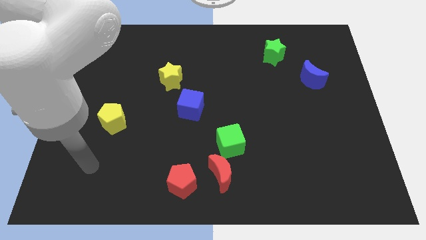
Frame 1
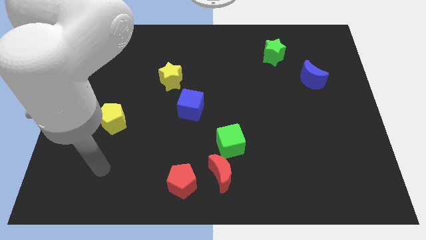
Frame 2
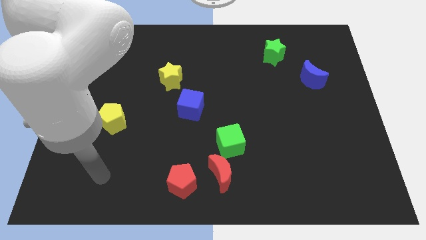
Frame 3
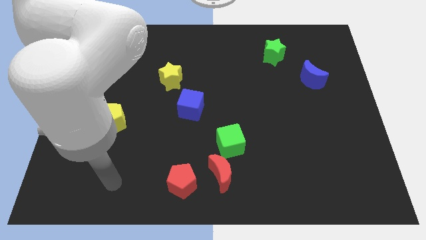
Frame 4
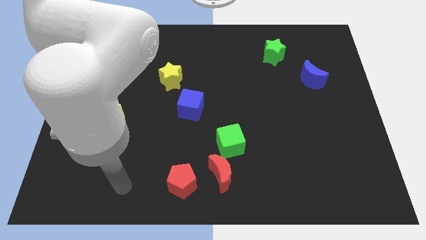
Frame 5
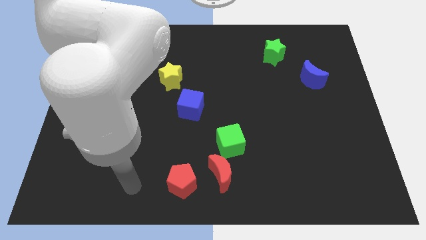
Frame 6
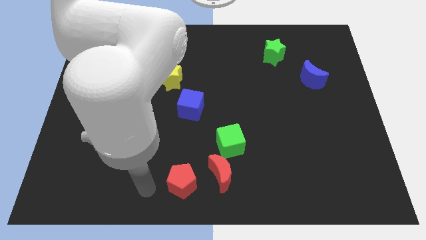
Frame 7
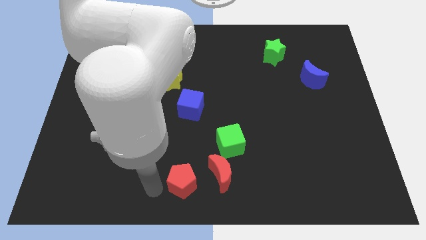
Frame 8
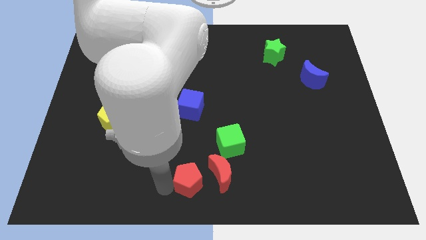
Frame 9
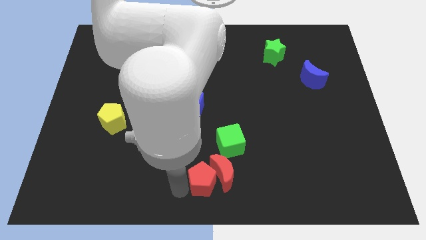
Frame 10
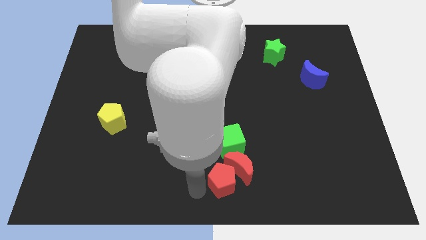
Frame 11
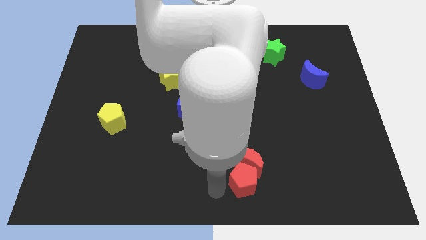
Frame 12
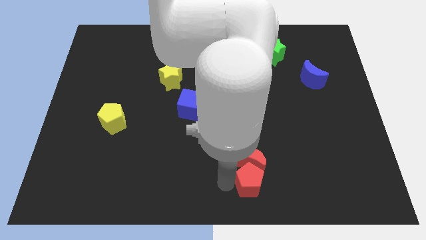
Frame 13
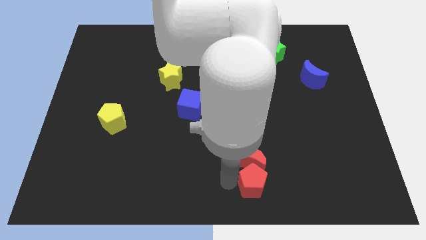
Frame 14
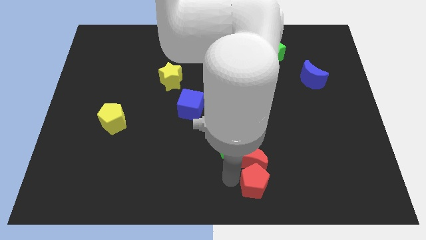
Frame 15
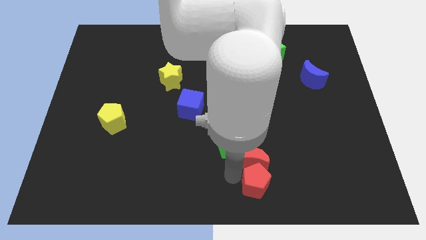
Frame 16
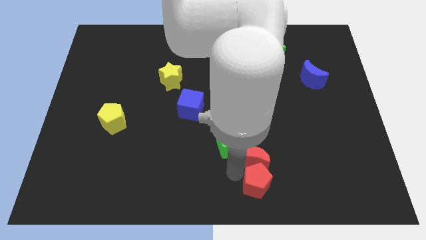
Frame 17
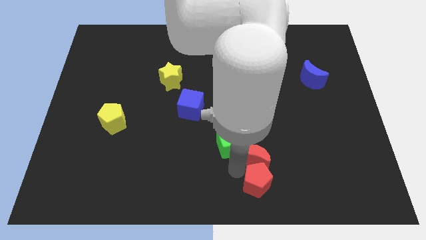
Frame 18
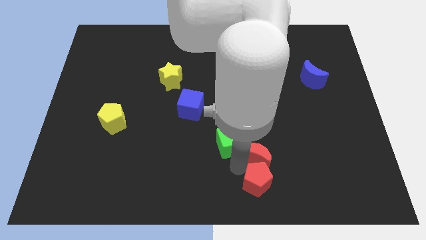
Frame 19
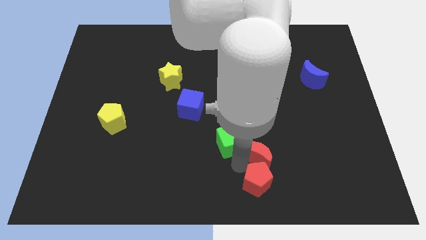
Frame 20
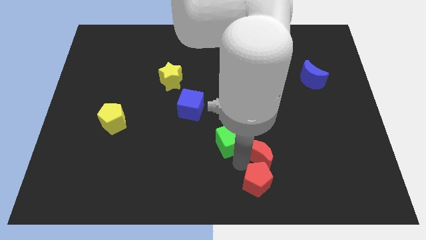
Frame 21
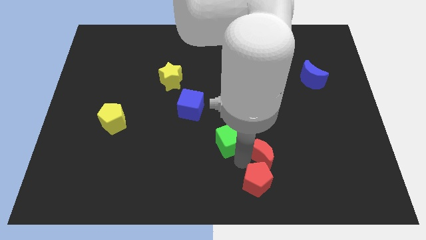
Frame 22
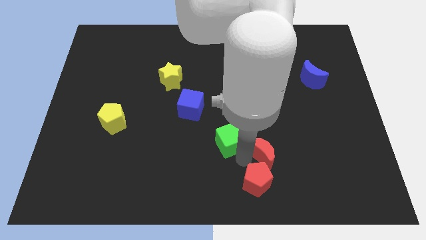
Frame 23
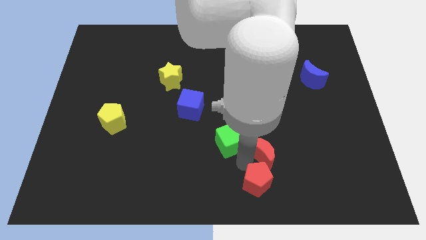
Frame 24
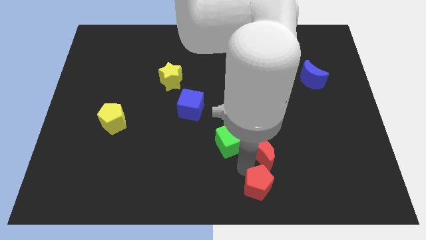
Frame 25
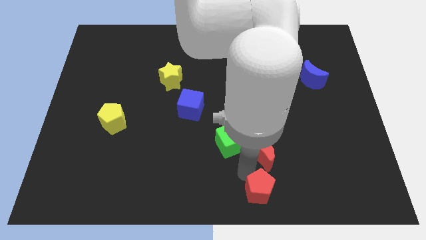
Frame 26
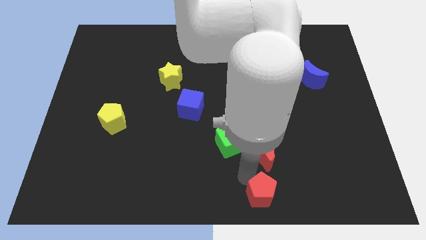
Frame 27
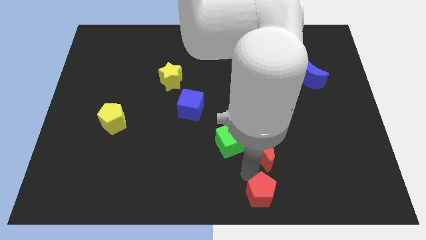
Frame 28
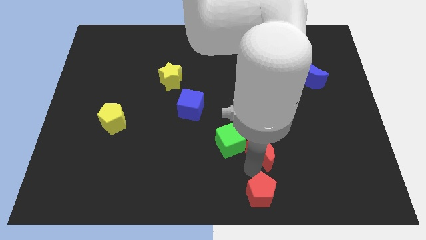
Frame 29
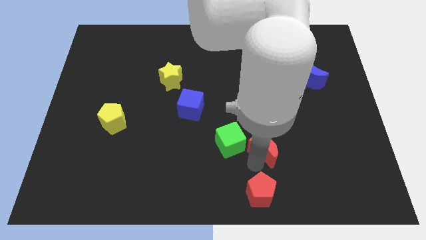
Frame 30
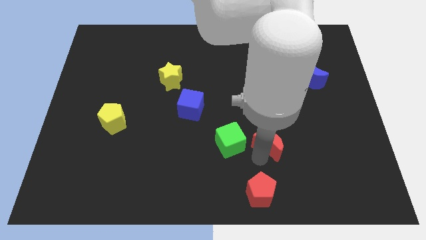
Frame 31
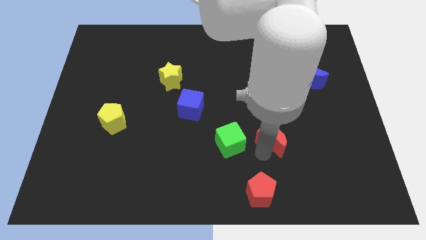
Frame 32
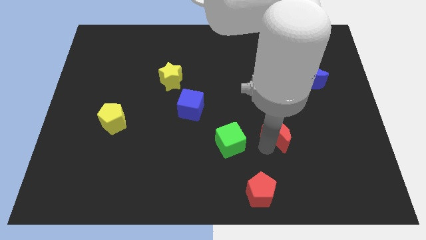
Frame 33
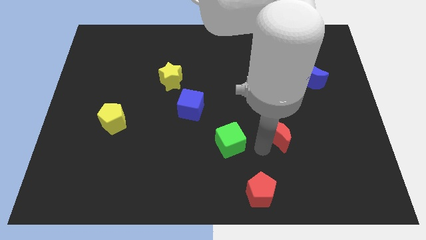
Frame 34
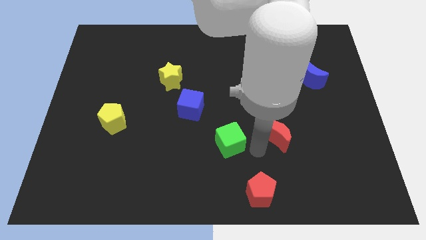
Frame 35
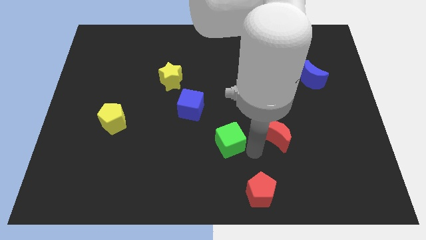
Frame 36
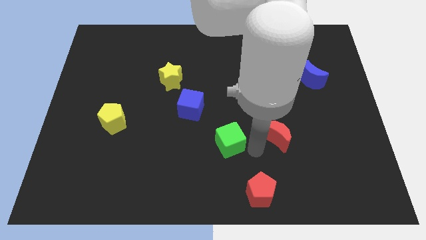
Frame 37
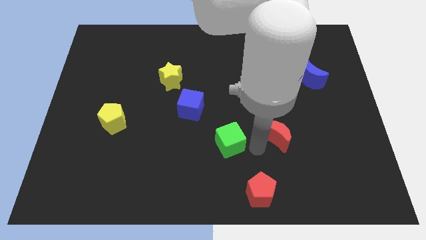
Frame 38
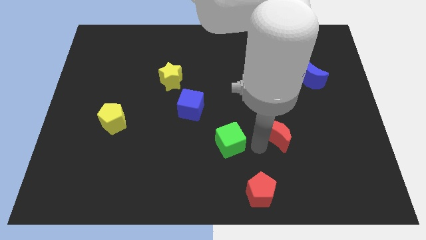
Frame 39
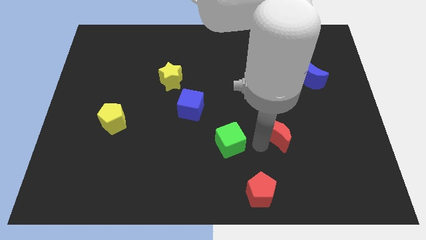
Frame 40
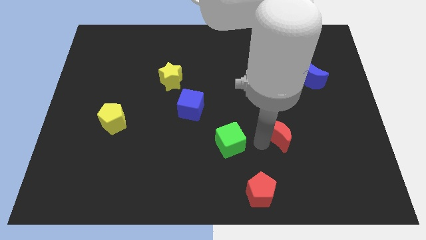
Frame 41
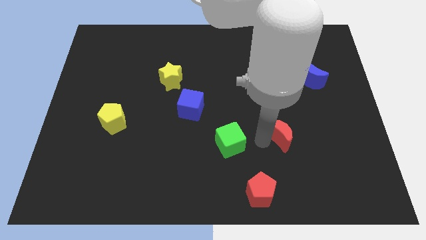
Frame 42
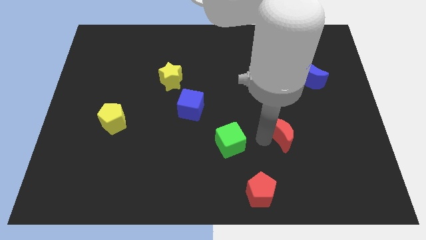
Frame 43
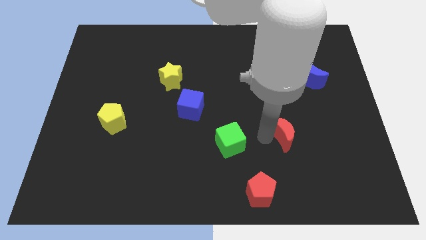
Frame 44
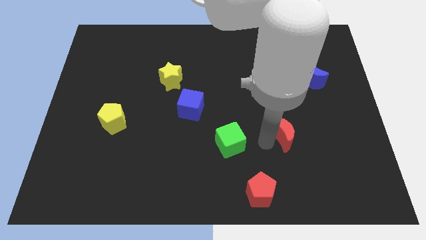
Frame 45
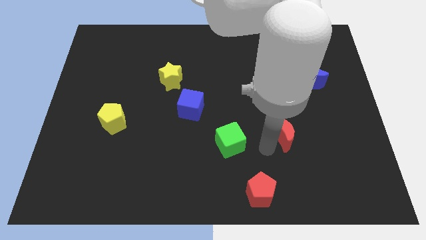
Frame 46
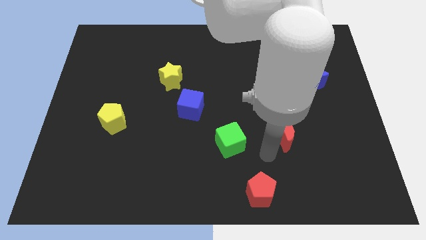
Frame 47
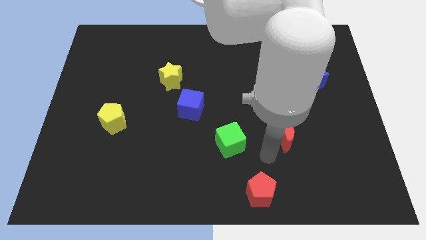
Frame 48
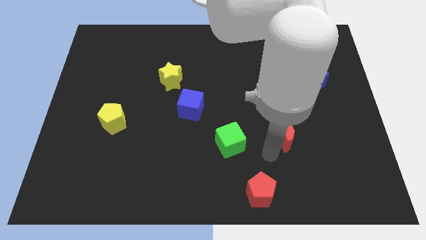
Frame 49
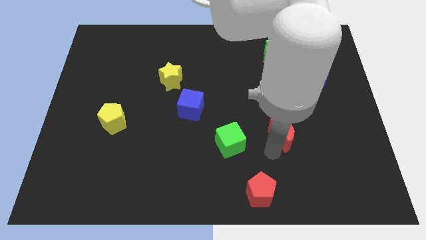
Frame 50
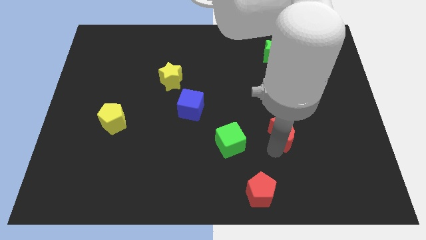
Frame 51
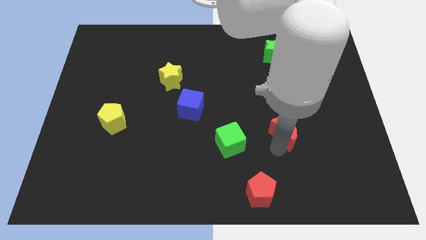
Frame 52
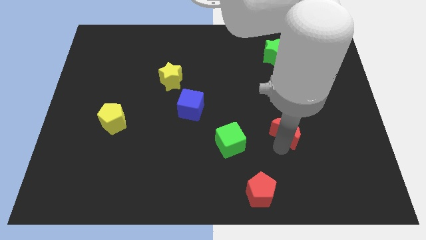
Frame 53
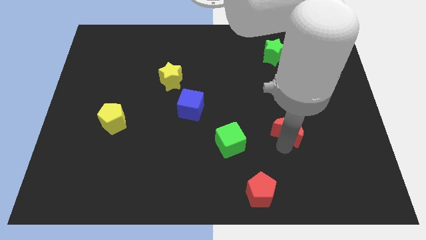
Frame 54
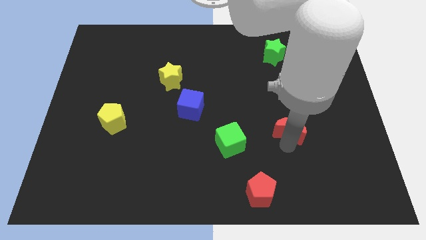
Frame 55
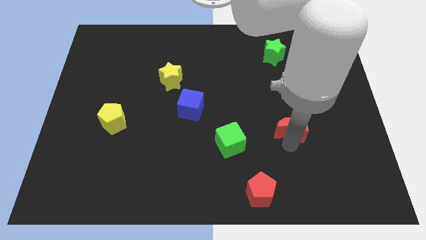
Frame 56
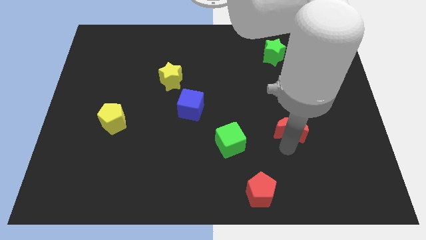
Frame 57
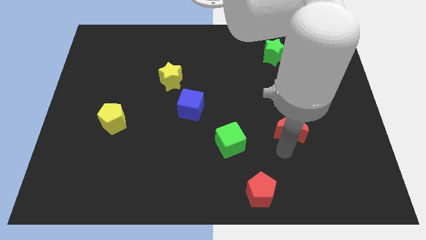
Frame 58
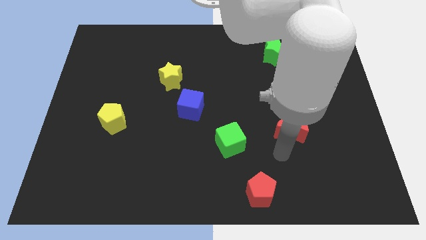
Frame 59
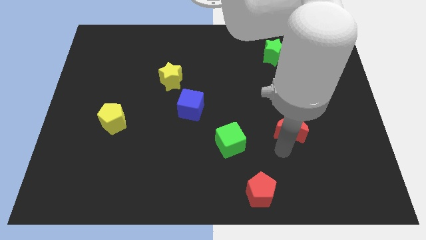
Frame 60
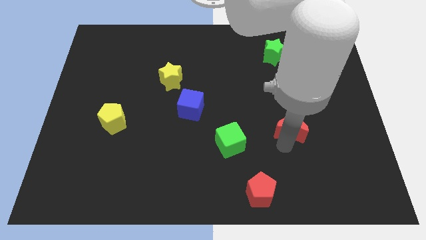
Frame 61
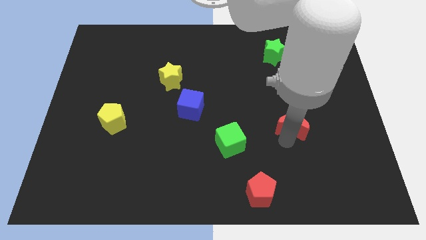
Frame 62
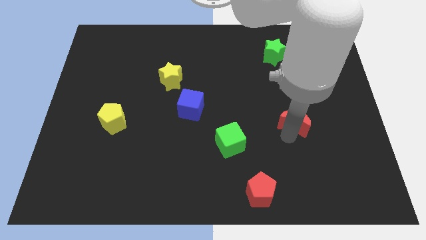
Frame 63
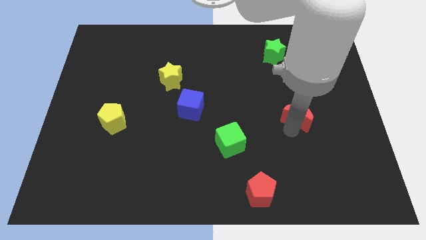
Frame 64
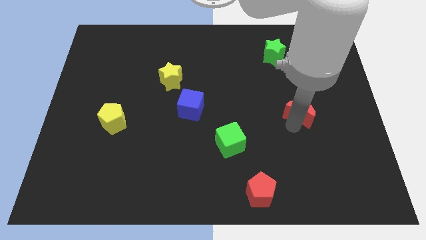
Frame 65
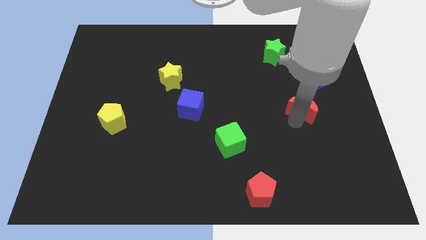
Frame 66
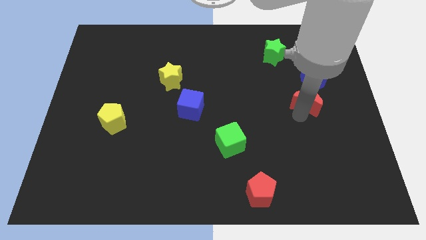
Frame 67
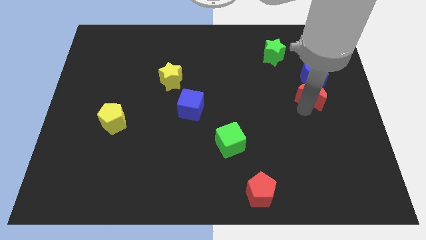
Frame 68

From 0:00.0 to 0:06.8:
push the red moon towards the blue moon

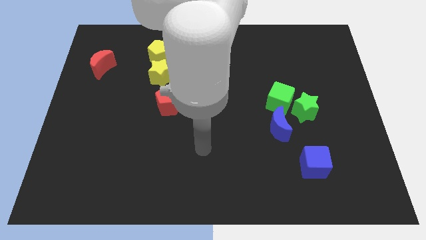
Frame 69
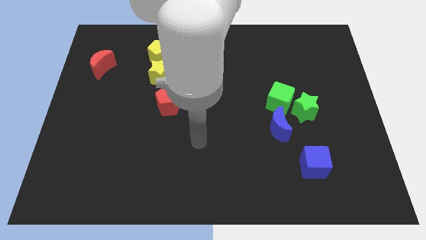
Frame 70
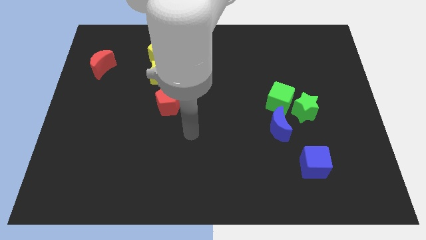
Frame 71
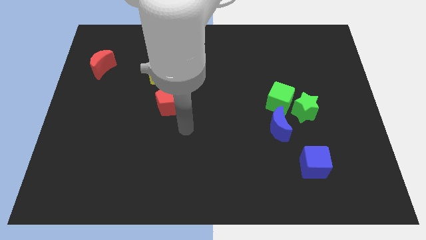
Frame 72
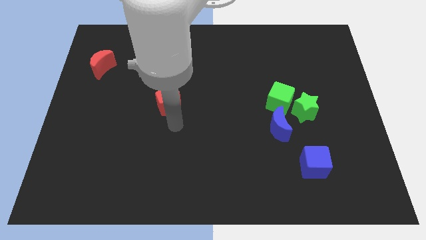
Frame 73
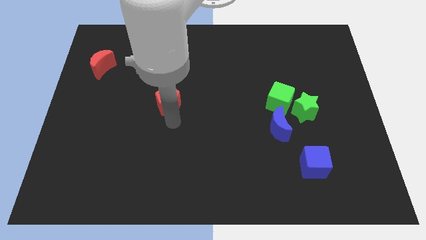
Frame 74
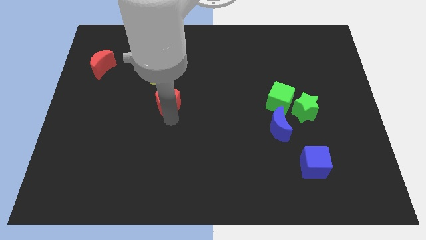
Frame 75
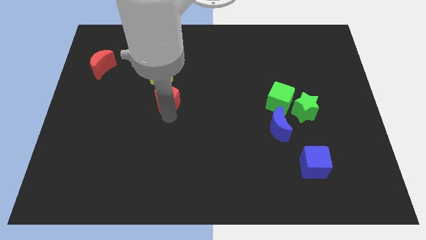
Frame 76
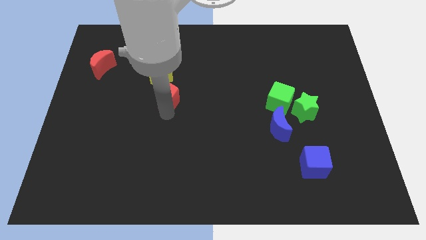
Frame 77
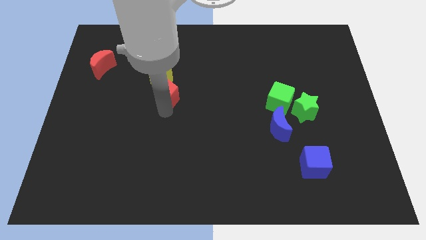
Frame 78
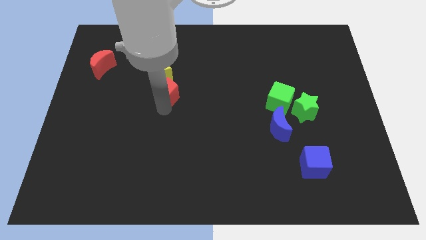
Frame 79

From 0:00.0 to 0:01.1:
push the red pentagon to the yellow star
